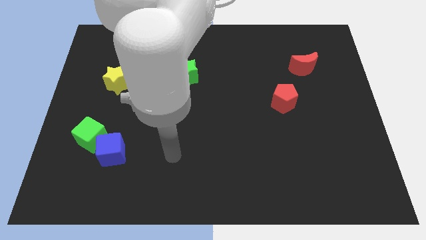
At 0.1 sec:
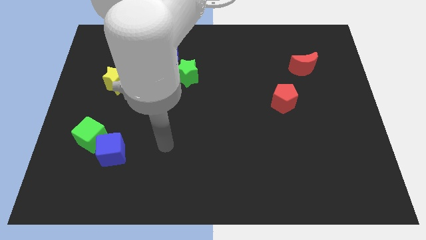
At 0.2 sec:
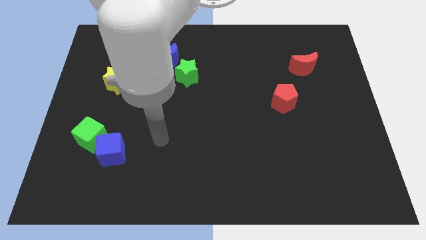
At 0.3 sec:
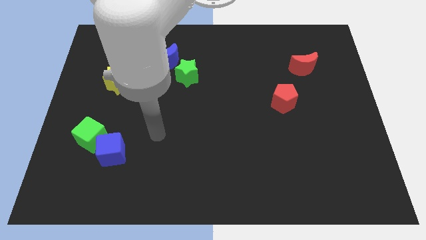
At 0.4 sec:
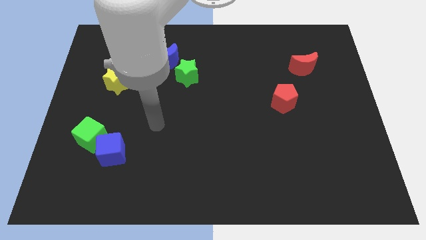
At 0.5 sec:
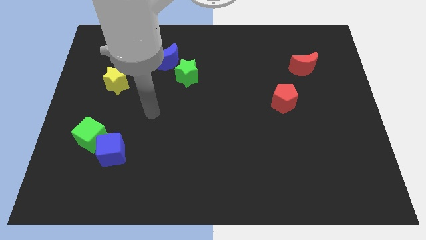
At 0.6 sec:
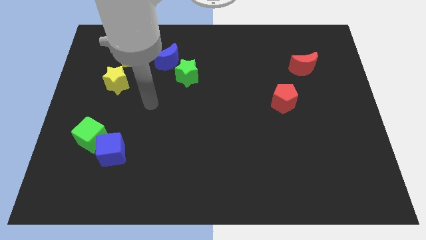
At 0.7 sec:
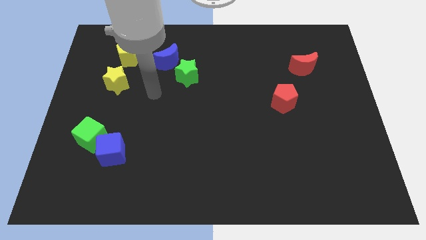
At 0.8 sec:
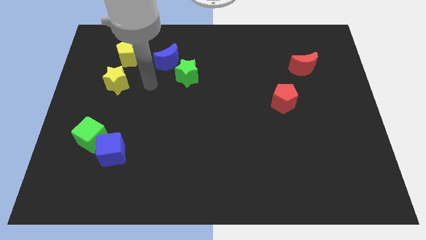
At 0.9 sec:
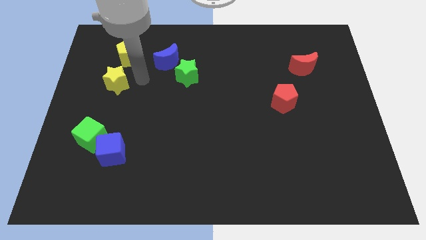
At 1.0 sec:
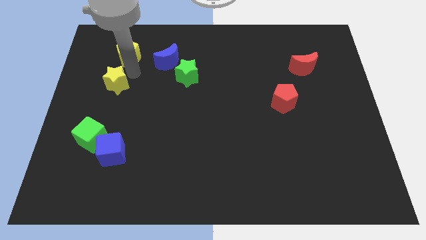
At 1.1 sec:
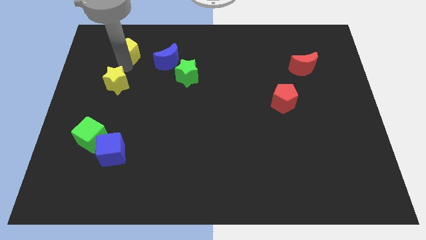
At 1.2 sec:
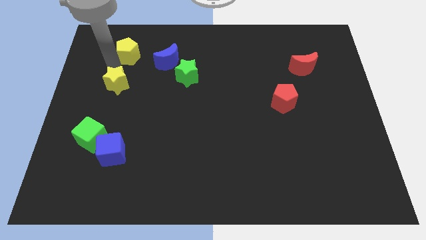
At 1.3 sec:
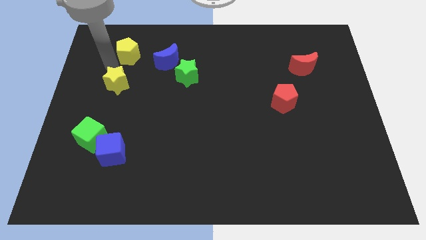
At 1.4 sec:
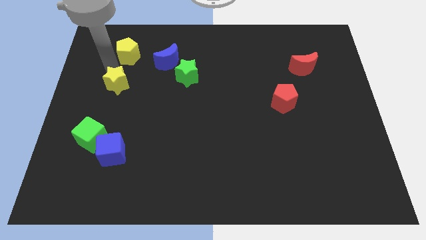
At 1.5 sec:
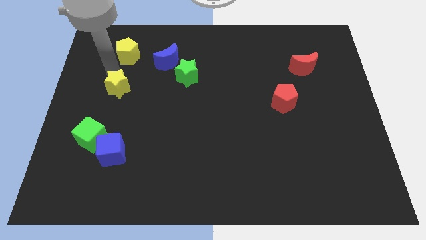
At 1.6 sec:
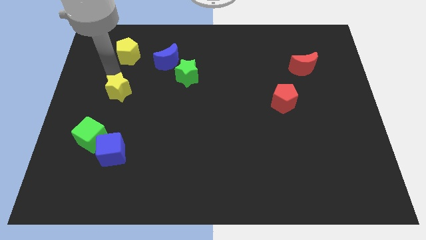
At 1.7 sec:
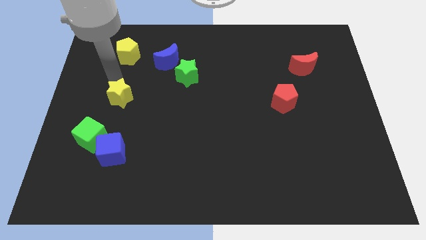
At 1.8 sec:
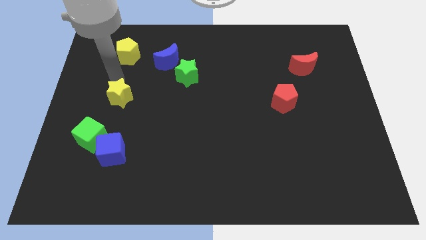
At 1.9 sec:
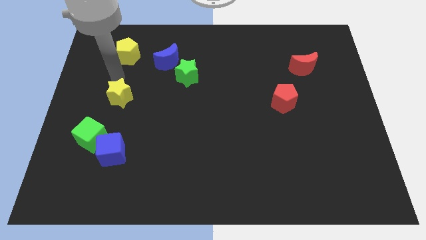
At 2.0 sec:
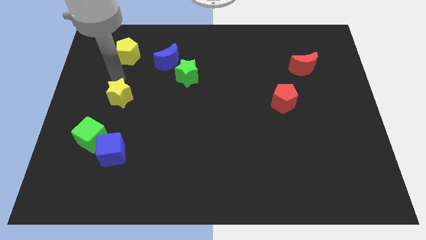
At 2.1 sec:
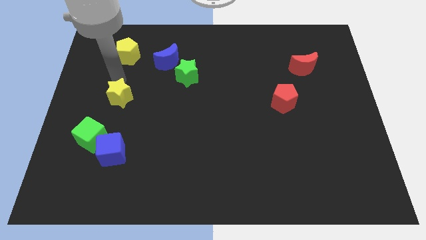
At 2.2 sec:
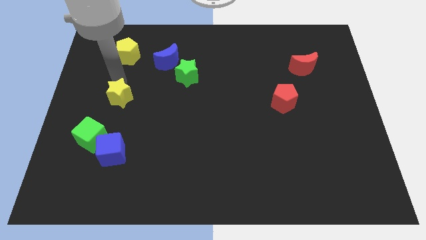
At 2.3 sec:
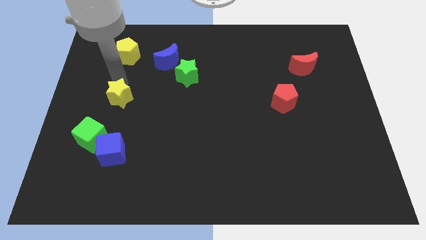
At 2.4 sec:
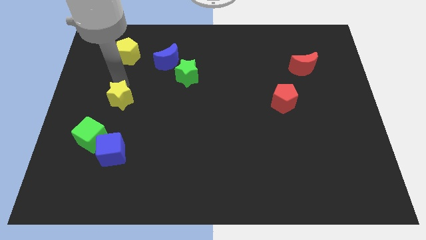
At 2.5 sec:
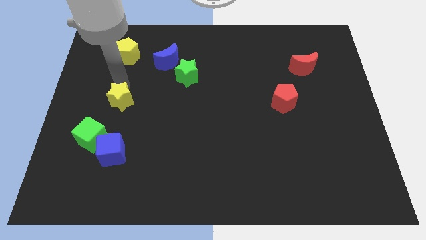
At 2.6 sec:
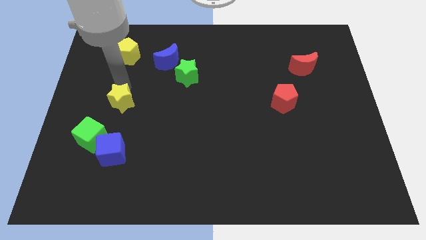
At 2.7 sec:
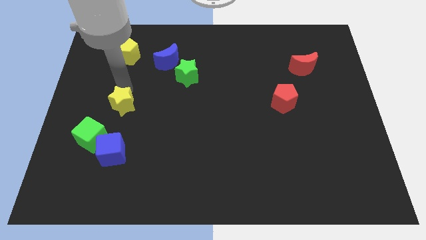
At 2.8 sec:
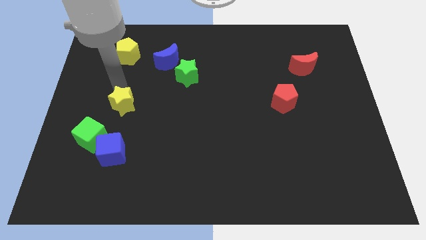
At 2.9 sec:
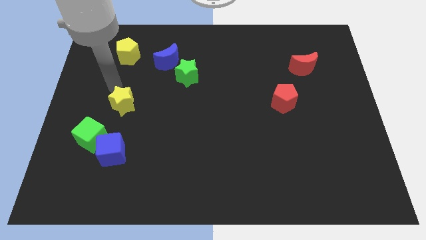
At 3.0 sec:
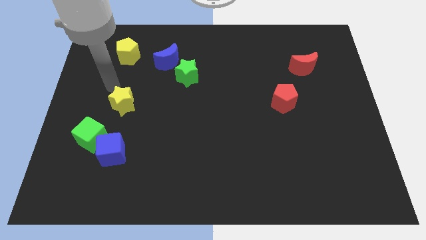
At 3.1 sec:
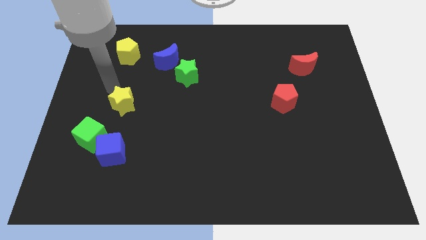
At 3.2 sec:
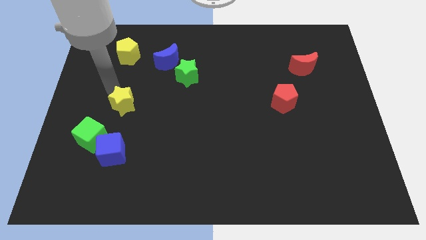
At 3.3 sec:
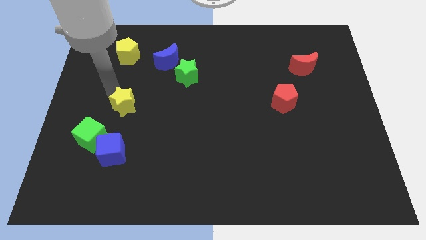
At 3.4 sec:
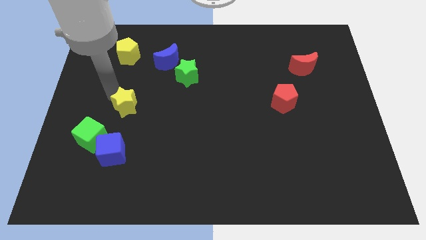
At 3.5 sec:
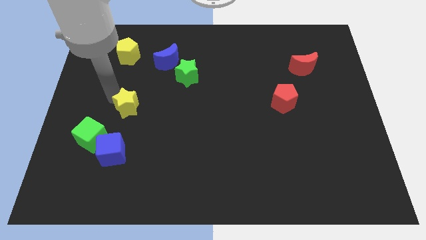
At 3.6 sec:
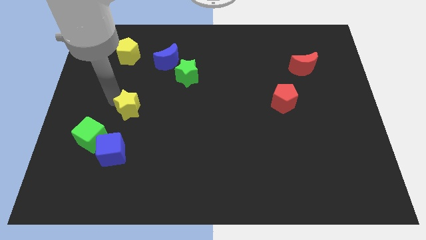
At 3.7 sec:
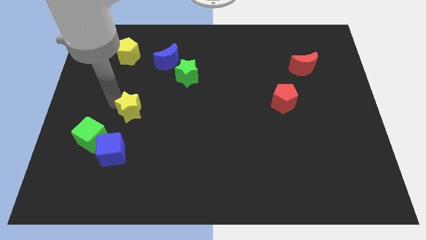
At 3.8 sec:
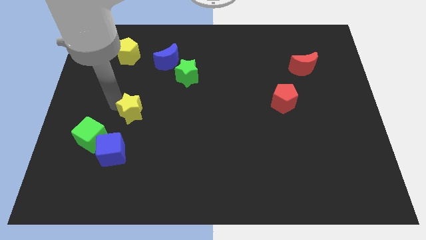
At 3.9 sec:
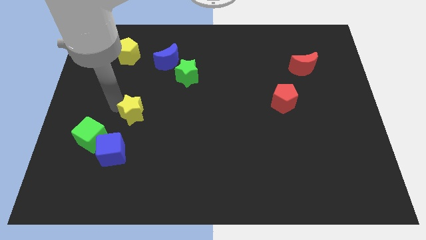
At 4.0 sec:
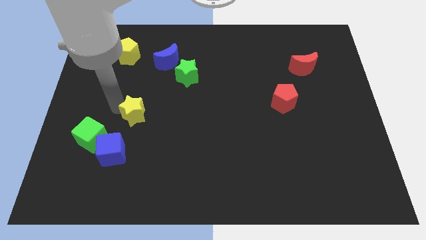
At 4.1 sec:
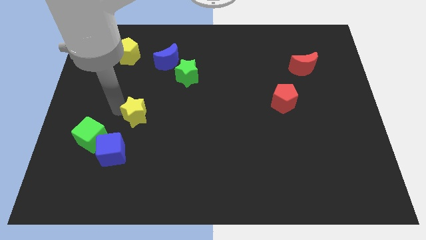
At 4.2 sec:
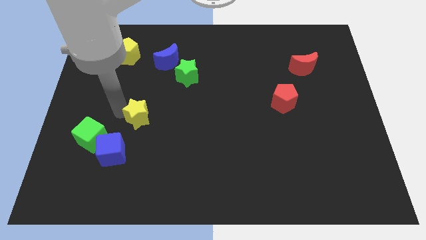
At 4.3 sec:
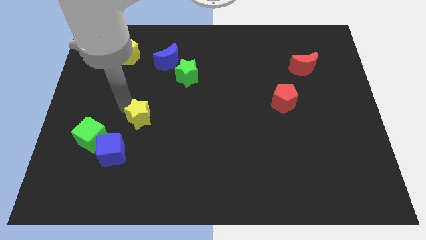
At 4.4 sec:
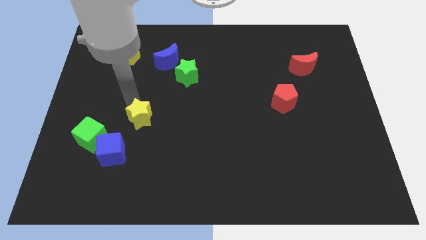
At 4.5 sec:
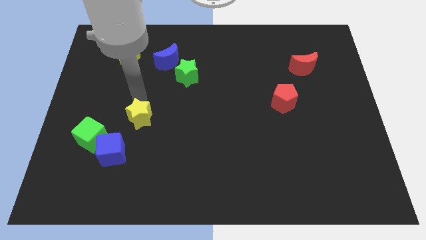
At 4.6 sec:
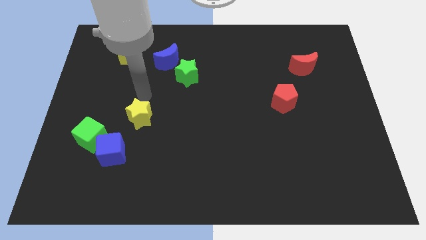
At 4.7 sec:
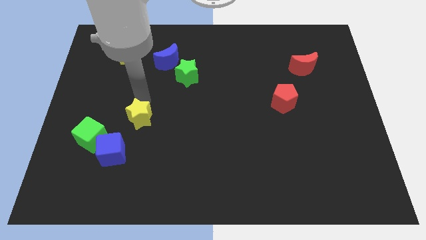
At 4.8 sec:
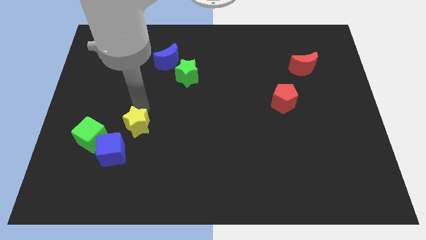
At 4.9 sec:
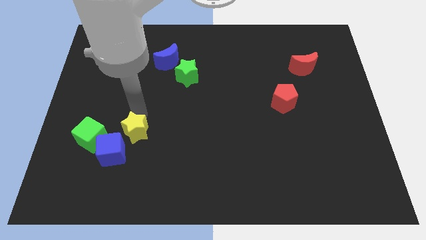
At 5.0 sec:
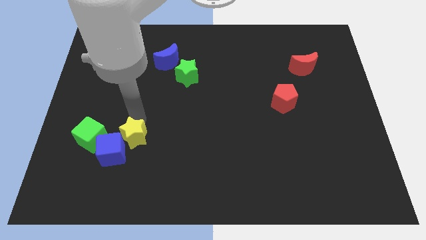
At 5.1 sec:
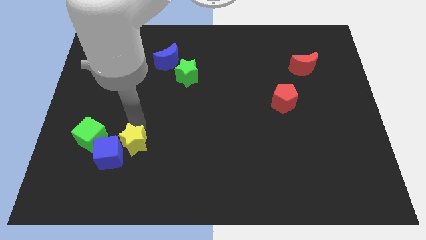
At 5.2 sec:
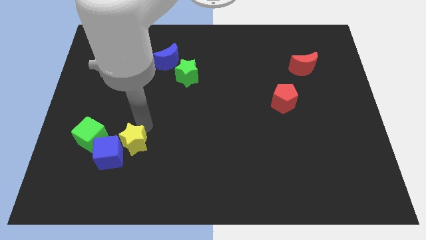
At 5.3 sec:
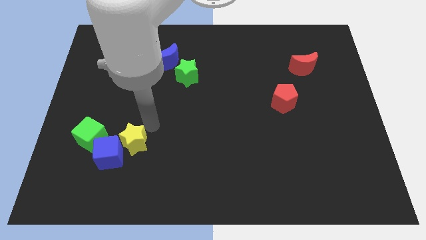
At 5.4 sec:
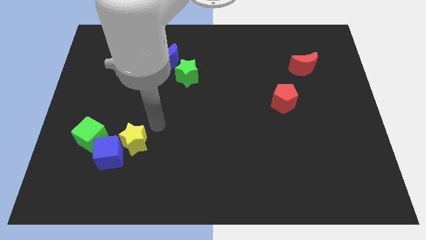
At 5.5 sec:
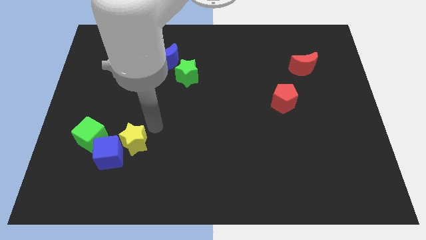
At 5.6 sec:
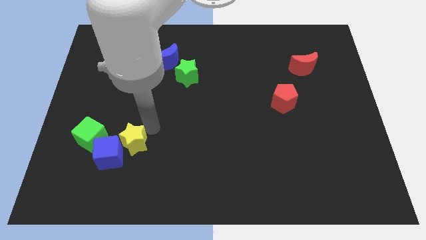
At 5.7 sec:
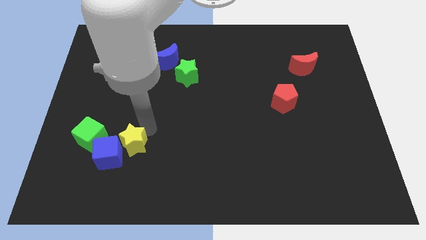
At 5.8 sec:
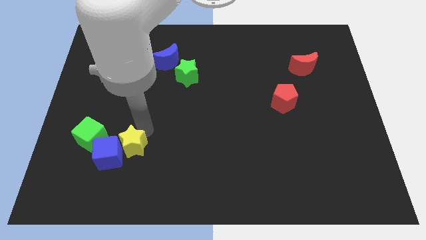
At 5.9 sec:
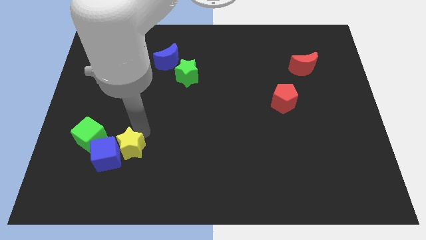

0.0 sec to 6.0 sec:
push the yellow star diagonally down and to the right of the green cube
